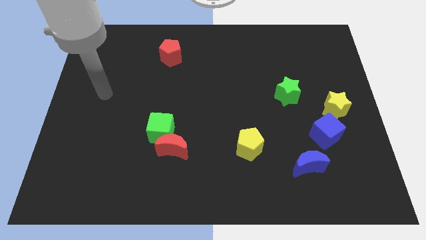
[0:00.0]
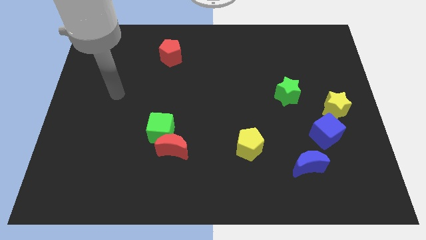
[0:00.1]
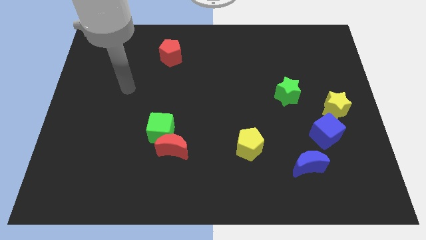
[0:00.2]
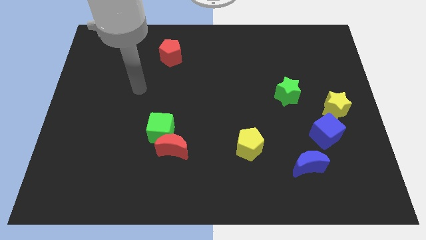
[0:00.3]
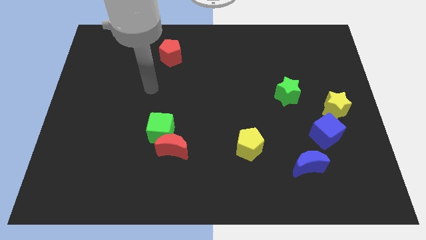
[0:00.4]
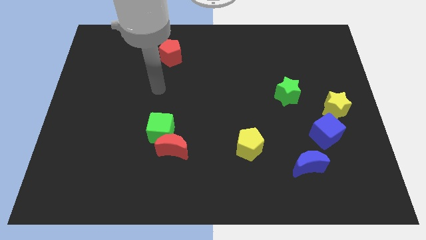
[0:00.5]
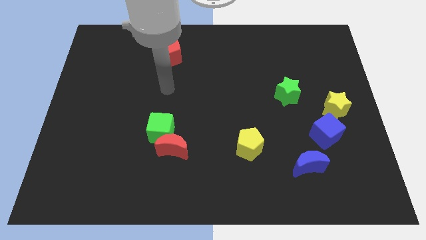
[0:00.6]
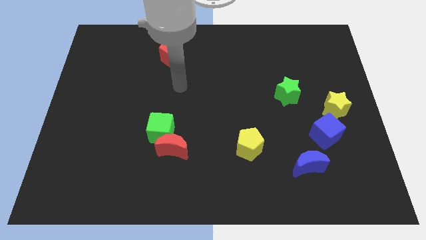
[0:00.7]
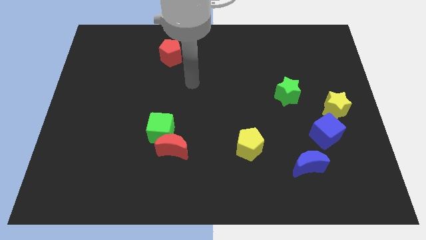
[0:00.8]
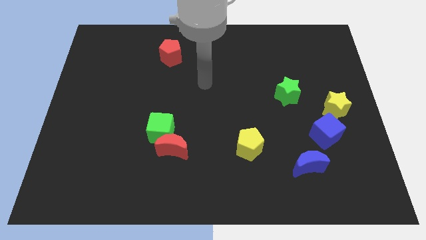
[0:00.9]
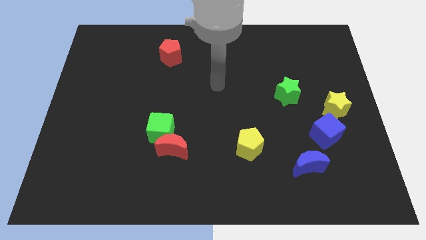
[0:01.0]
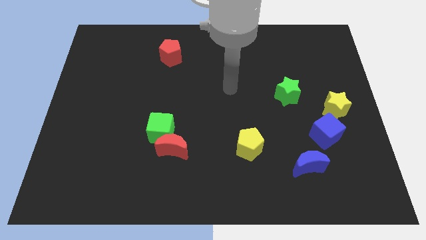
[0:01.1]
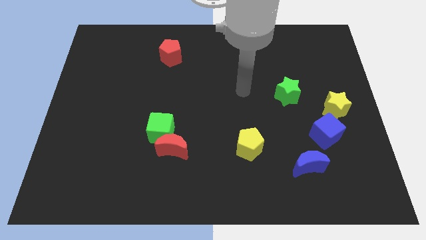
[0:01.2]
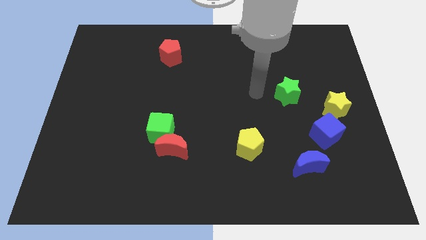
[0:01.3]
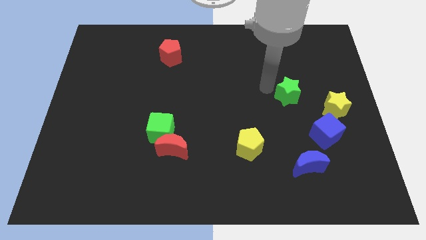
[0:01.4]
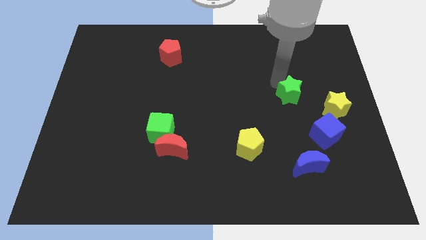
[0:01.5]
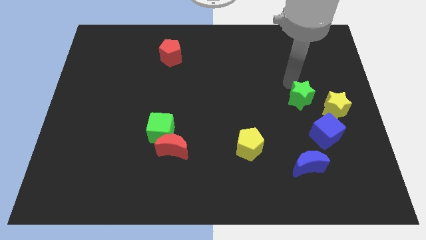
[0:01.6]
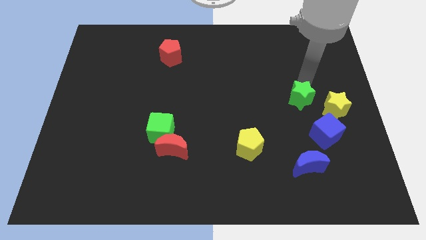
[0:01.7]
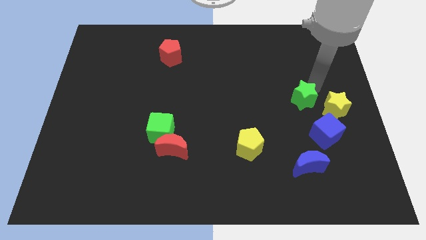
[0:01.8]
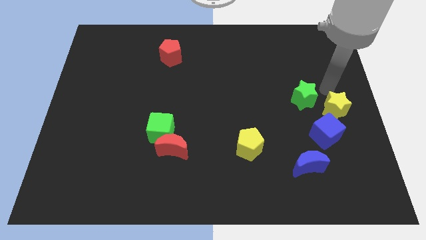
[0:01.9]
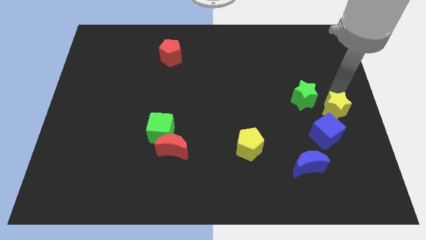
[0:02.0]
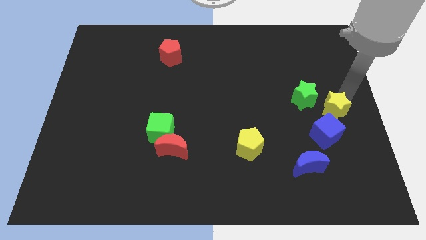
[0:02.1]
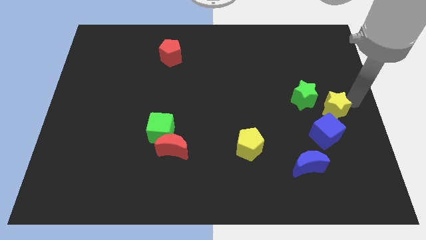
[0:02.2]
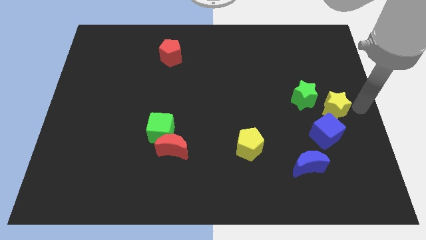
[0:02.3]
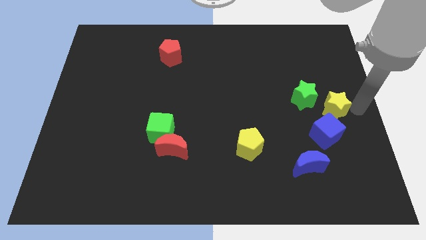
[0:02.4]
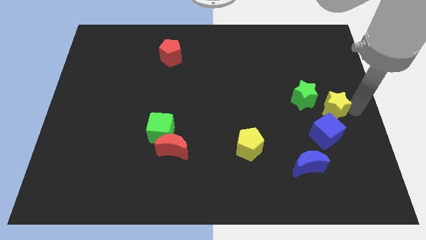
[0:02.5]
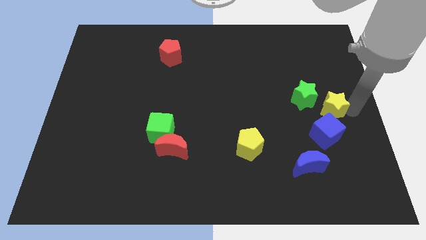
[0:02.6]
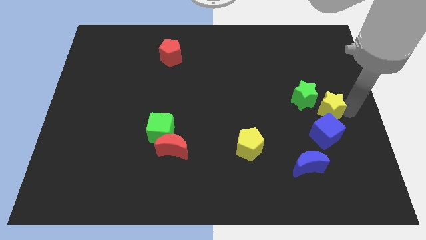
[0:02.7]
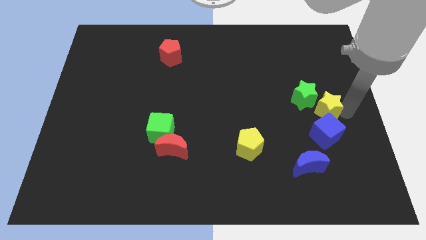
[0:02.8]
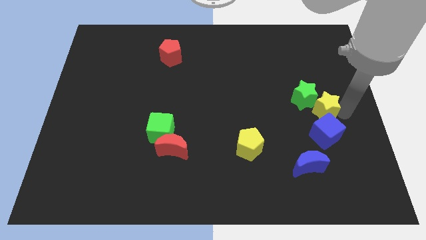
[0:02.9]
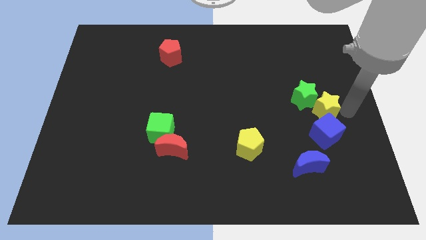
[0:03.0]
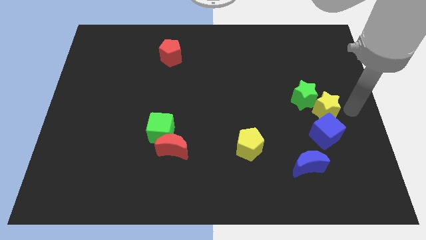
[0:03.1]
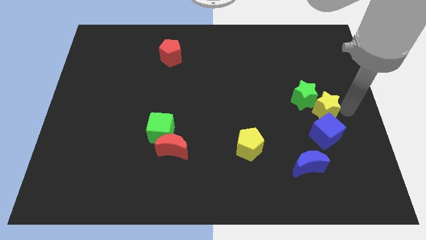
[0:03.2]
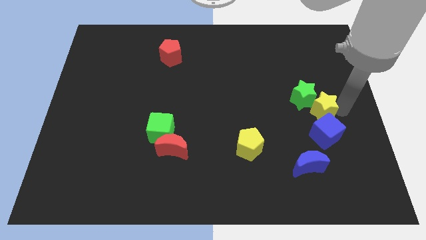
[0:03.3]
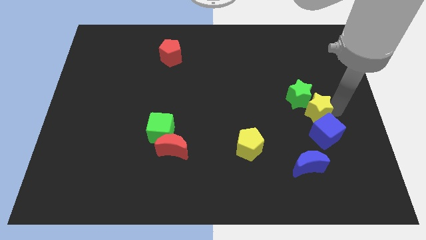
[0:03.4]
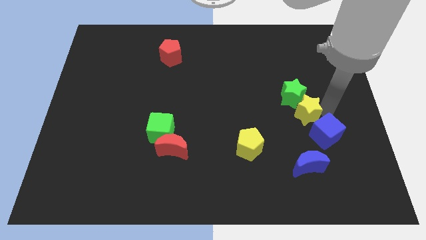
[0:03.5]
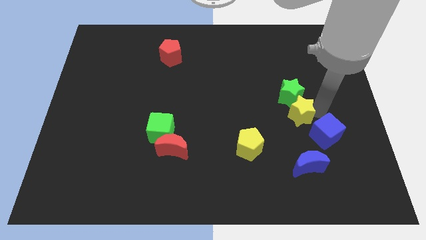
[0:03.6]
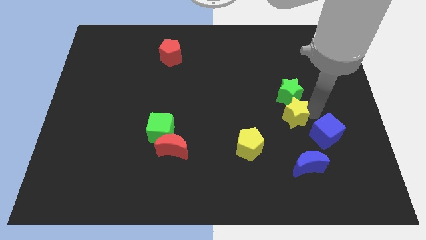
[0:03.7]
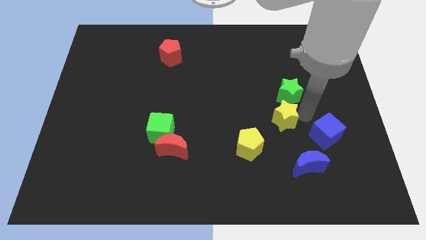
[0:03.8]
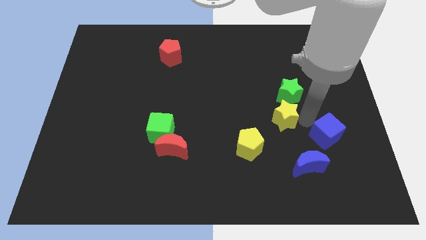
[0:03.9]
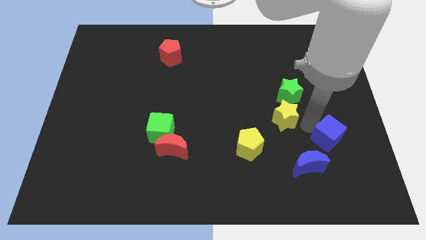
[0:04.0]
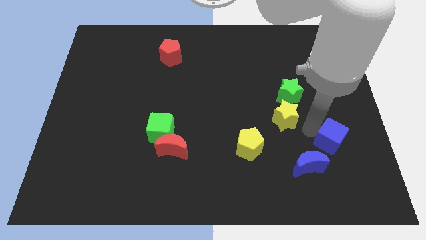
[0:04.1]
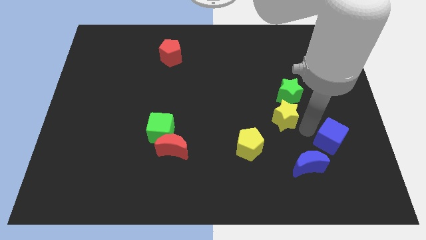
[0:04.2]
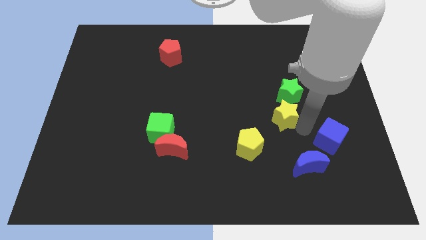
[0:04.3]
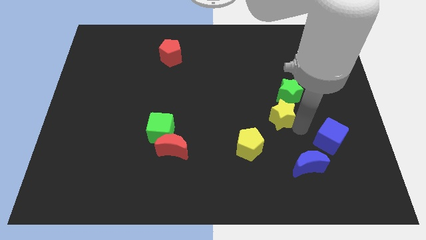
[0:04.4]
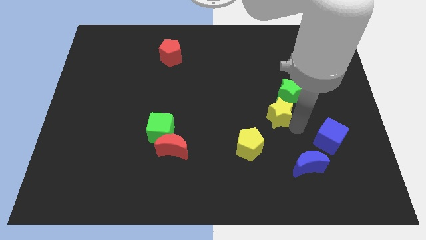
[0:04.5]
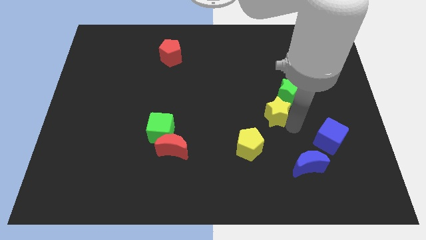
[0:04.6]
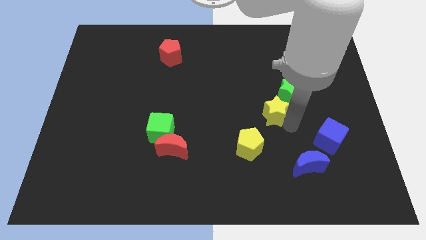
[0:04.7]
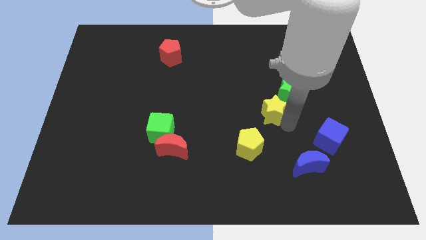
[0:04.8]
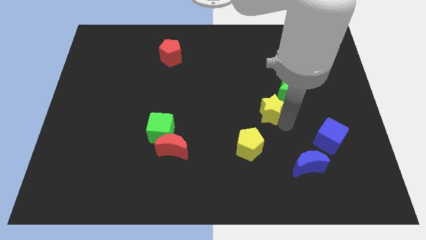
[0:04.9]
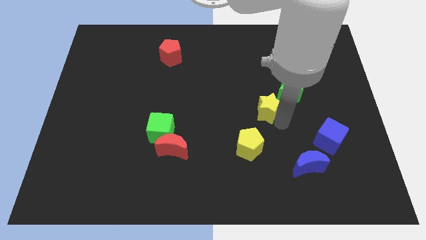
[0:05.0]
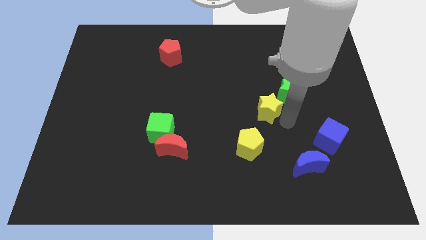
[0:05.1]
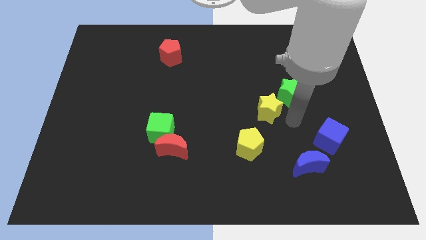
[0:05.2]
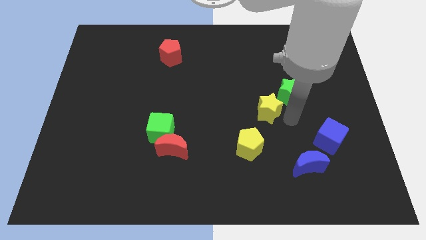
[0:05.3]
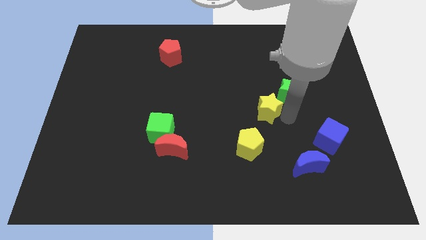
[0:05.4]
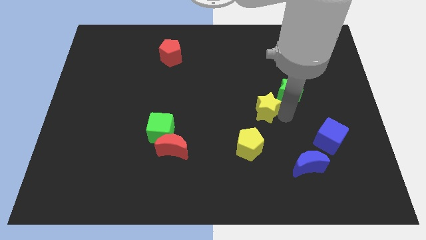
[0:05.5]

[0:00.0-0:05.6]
put the yellow star to the middle
